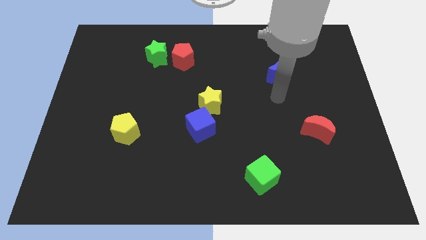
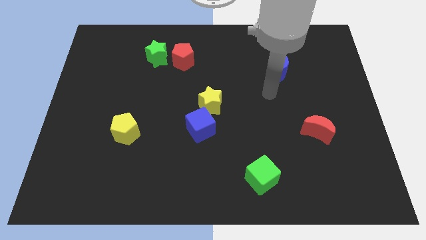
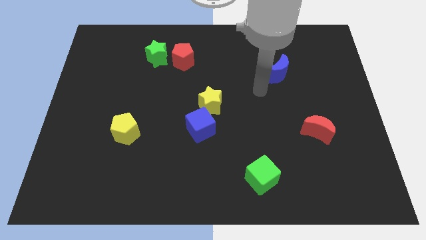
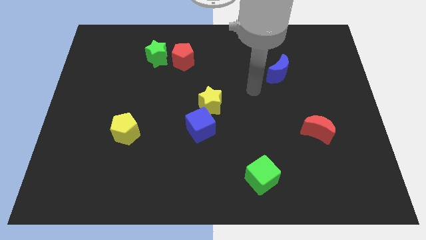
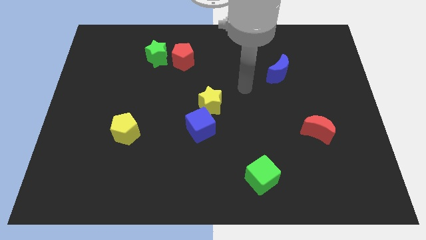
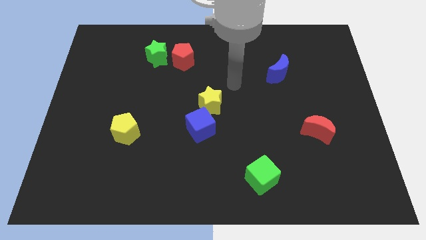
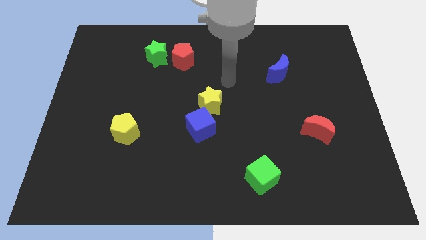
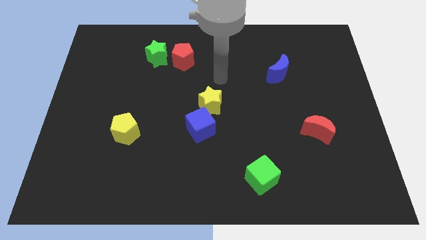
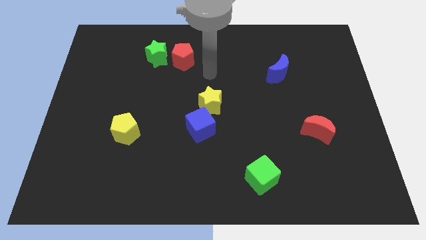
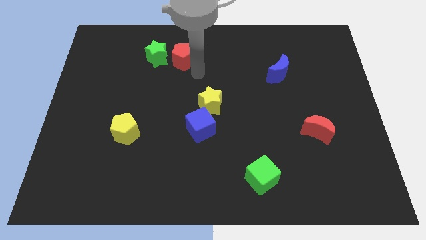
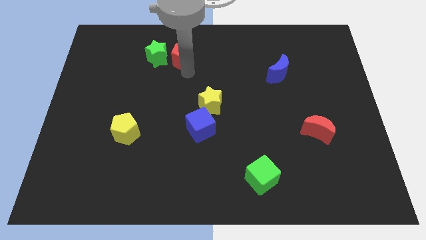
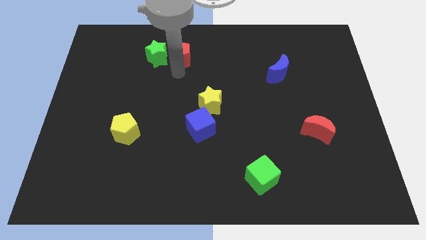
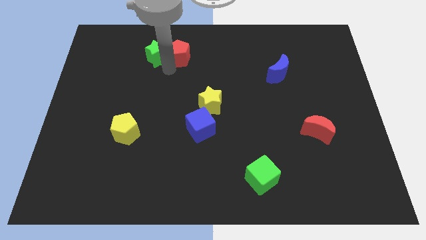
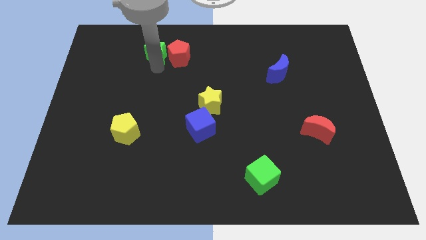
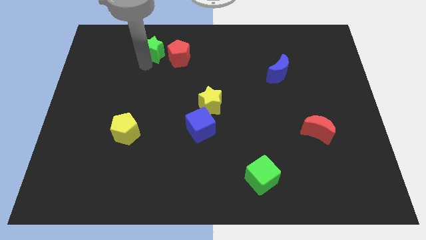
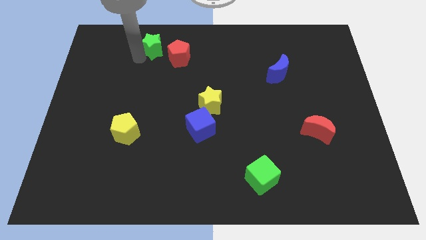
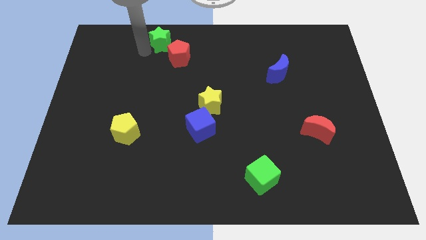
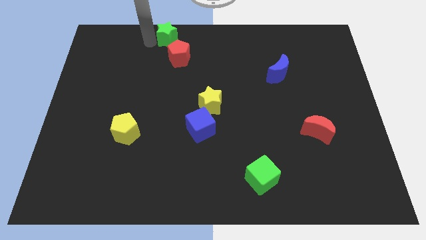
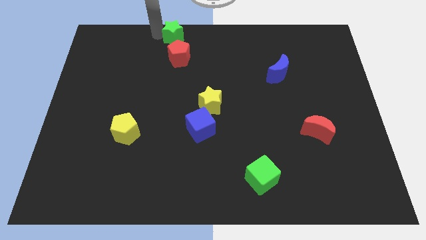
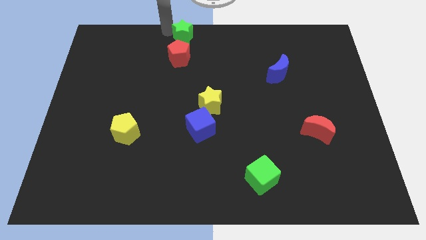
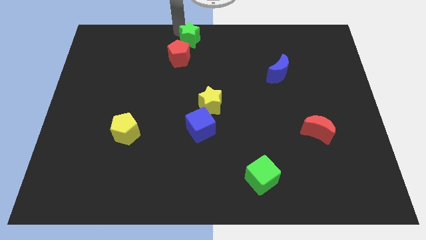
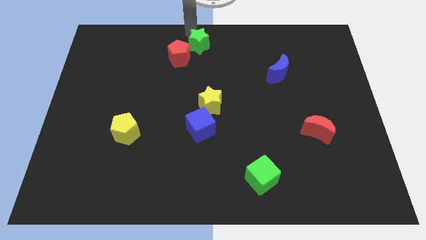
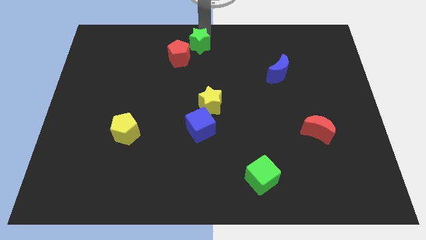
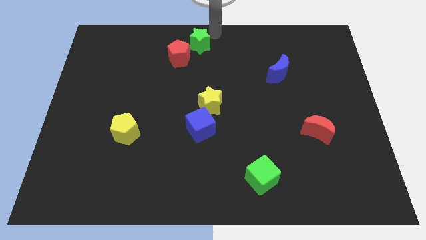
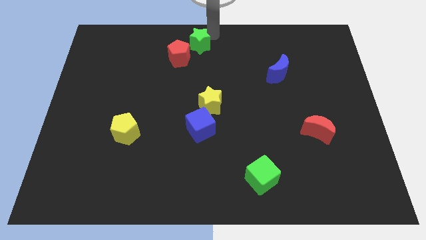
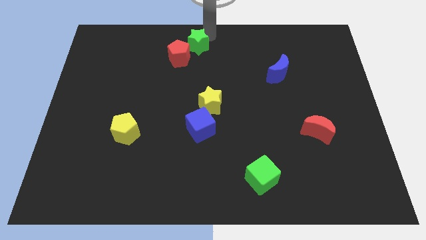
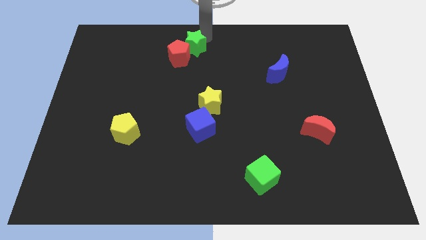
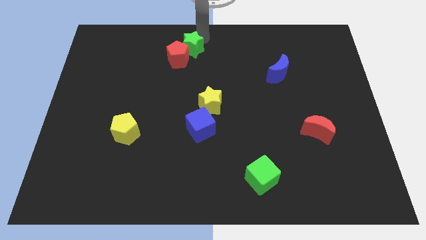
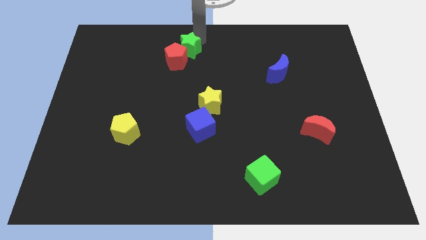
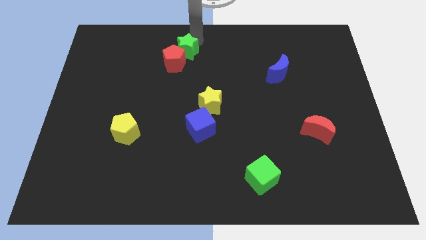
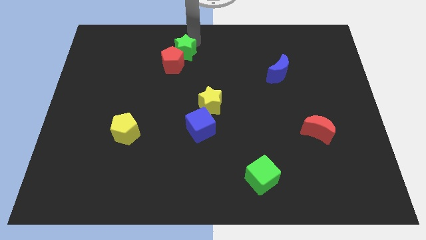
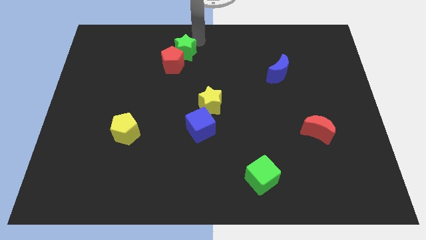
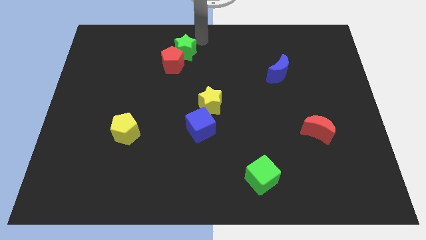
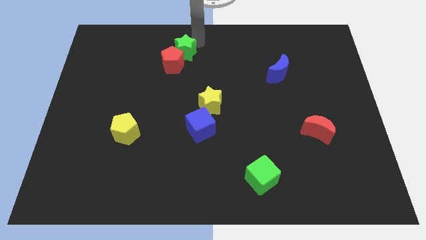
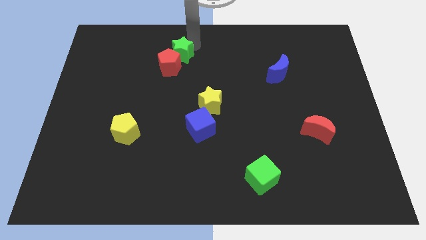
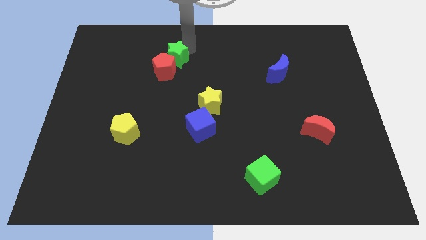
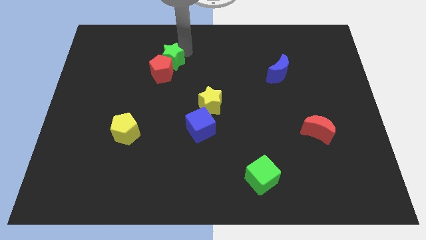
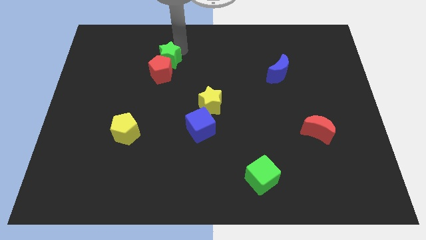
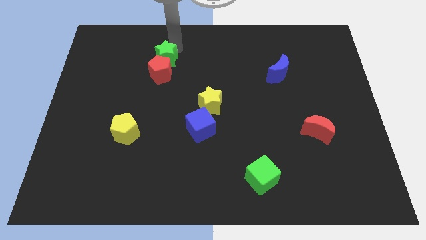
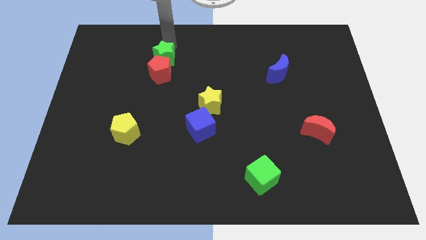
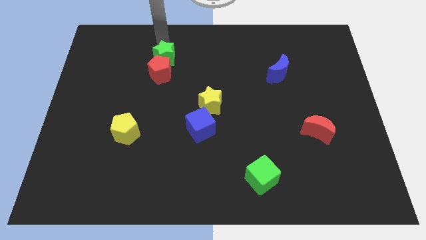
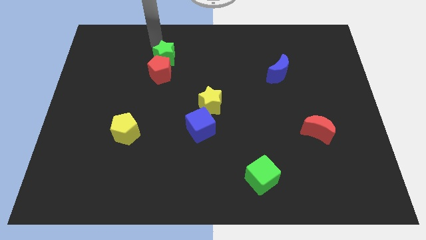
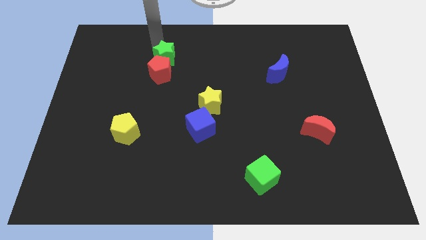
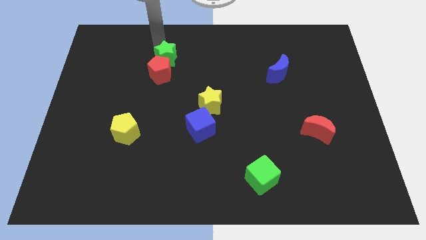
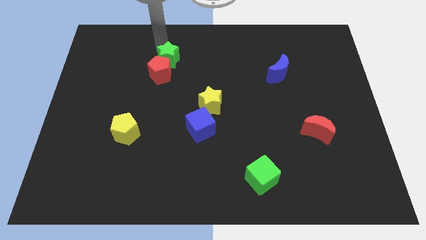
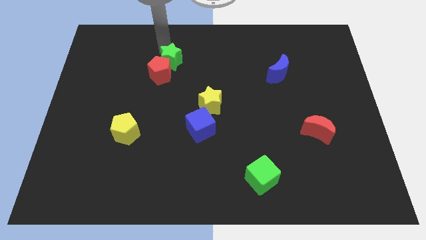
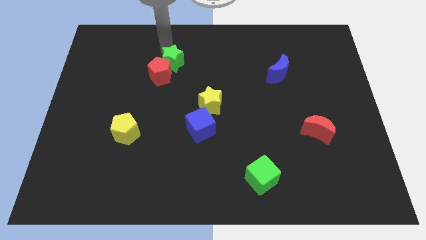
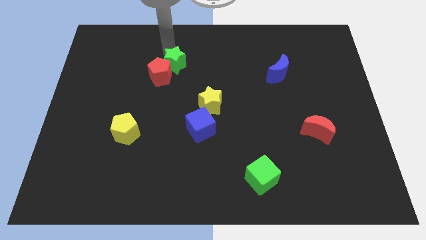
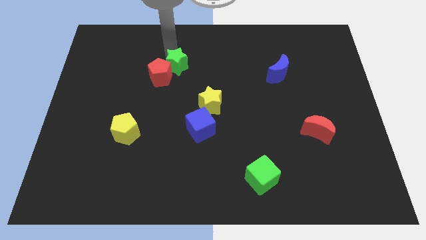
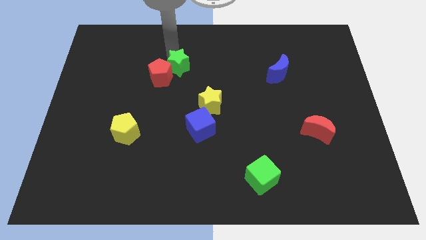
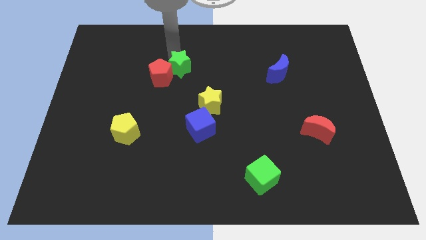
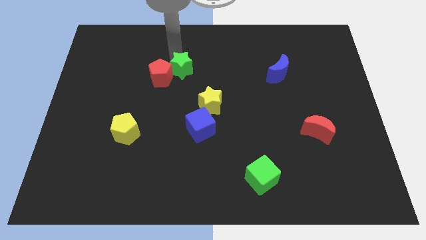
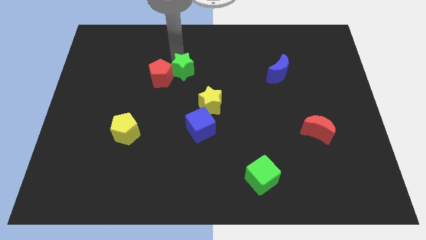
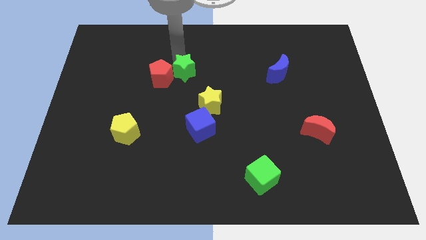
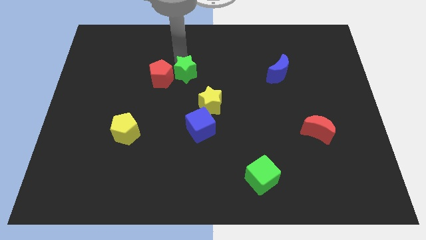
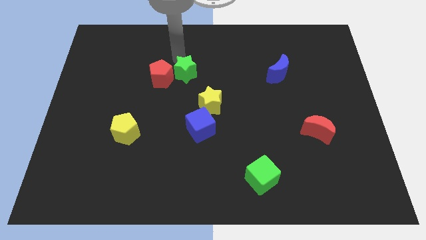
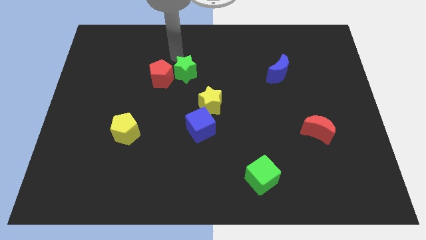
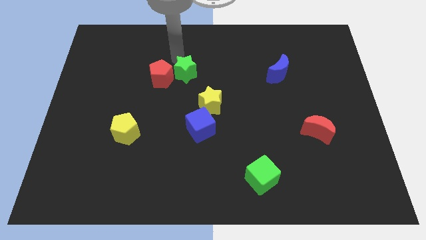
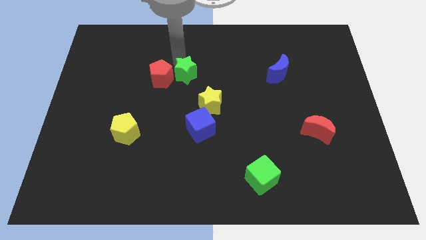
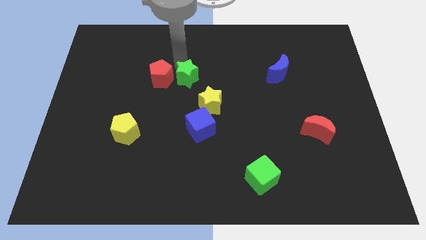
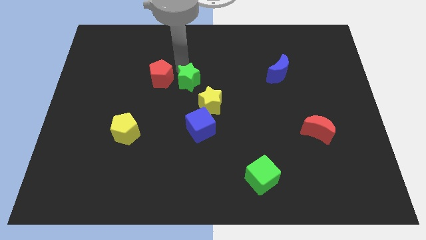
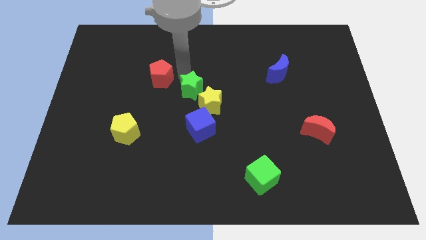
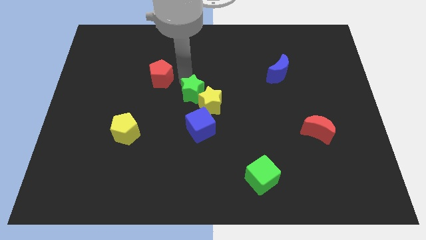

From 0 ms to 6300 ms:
put the green star next to the yellow star

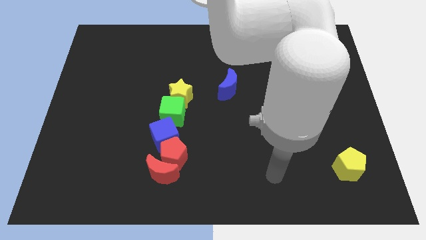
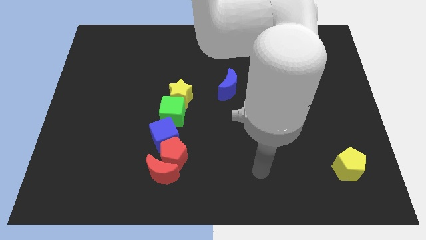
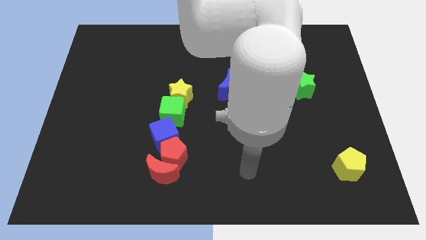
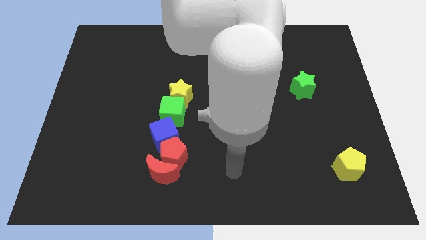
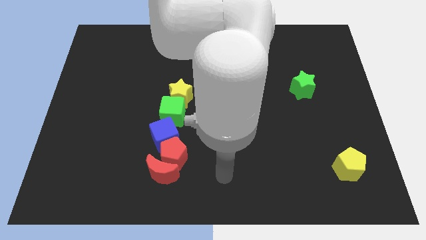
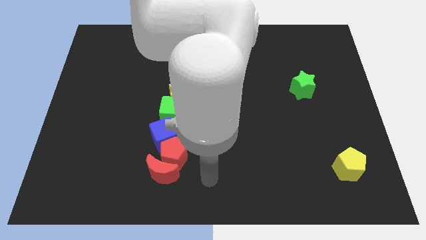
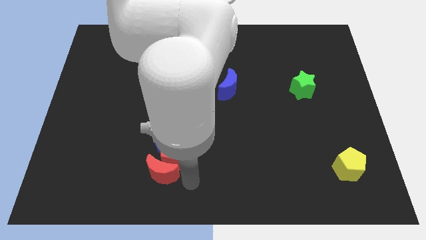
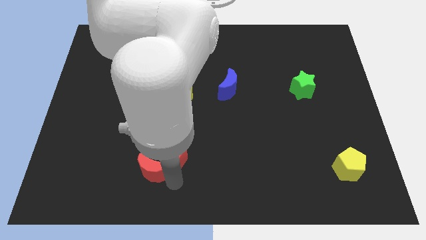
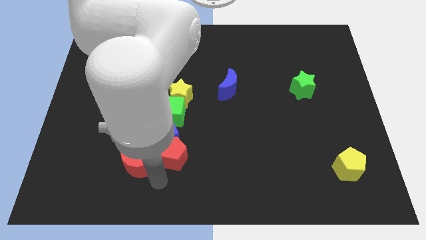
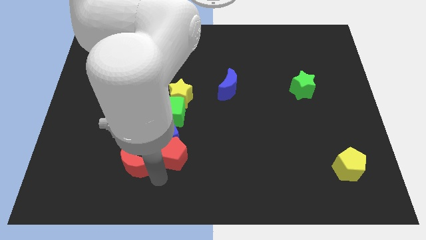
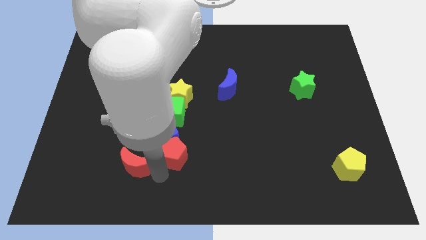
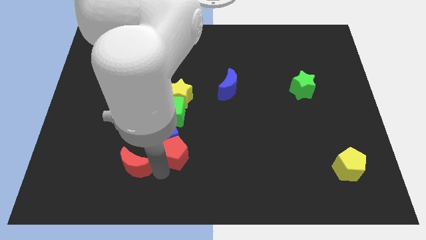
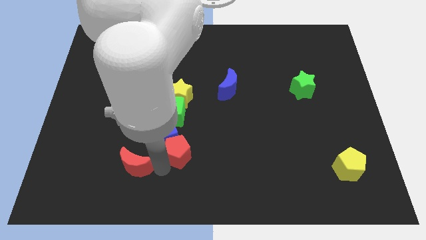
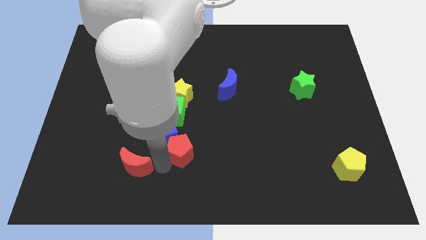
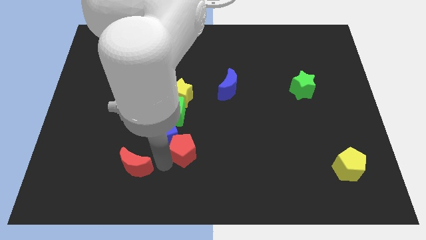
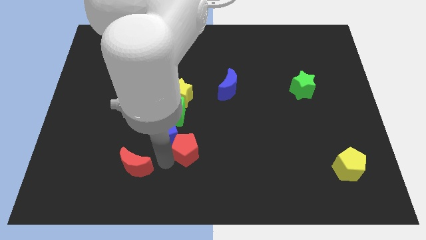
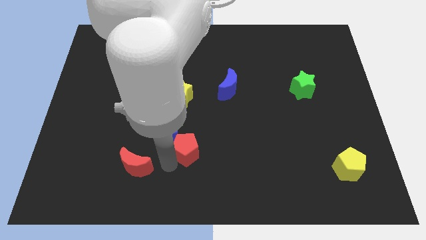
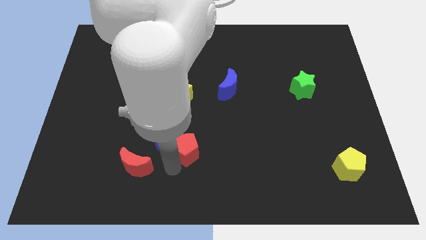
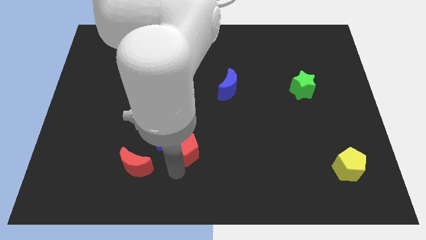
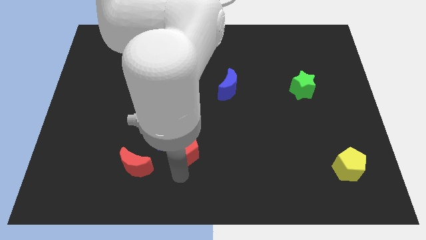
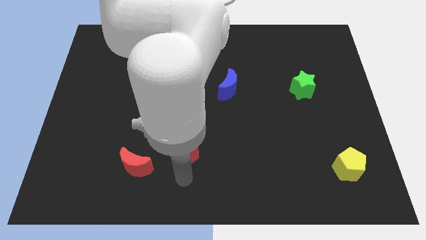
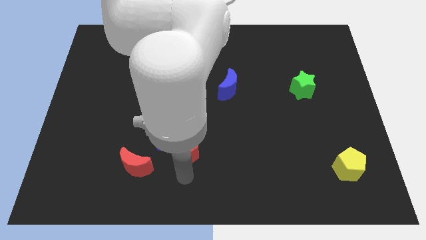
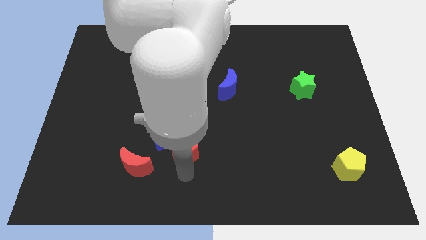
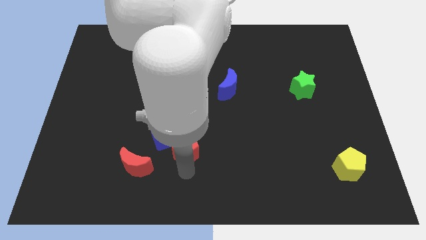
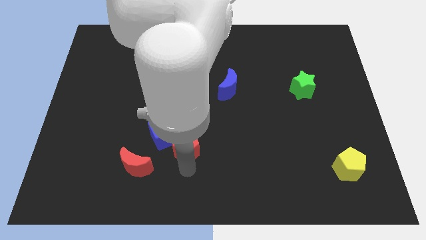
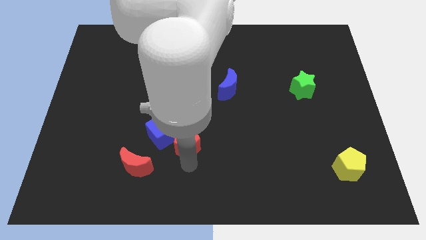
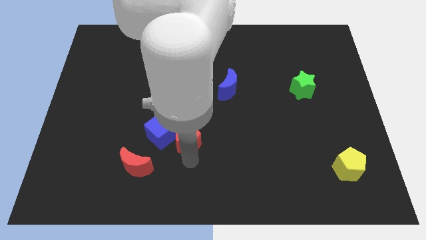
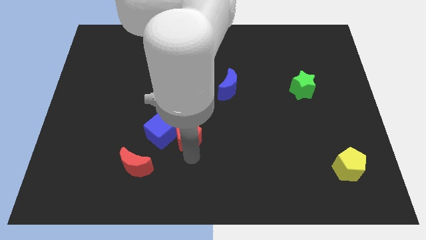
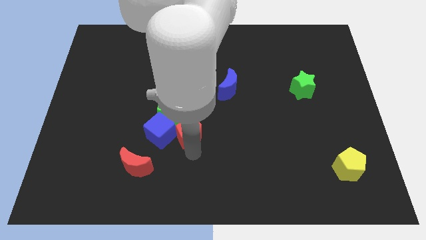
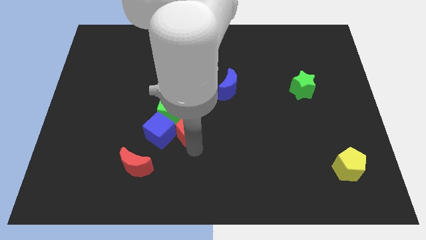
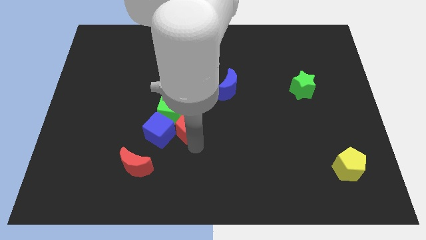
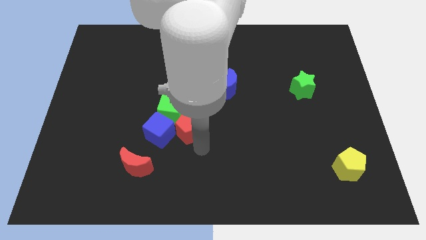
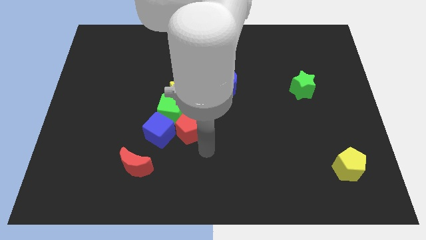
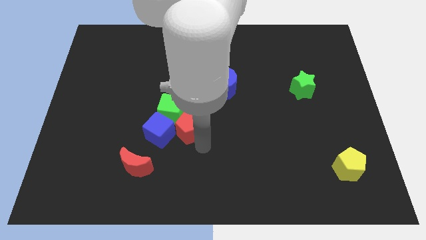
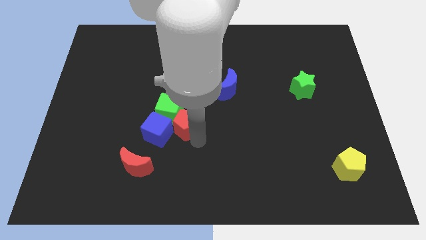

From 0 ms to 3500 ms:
push the red pentagon towards the green cube
